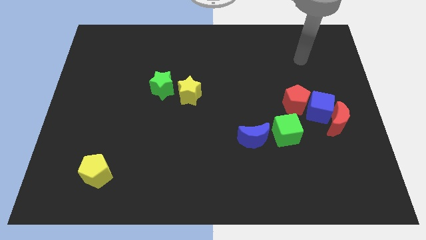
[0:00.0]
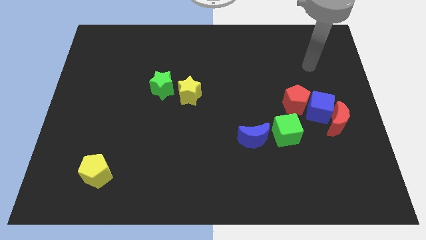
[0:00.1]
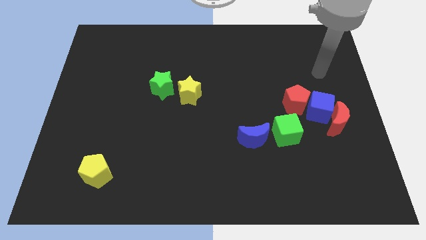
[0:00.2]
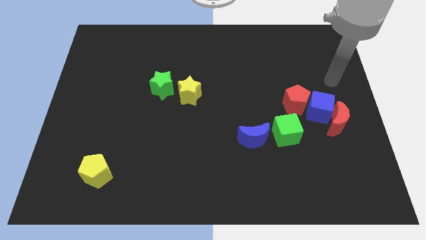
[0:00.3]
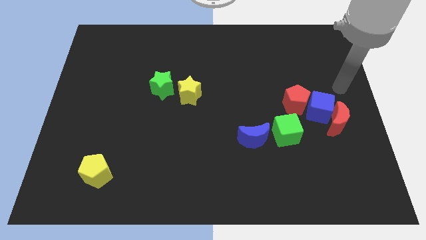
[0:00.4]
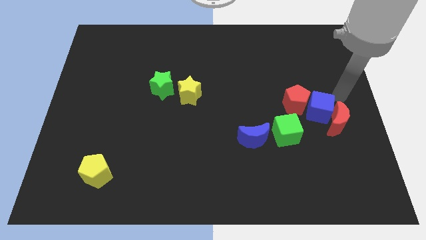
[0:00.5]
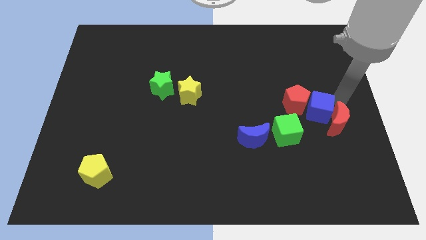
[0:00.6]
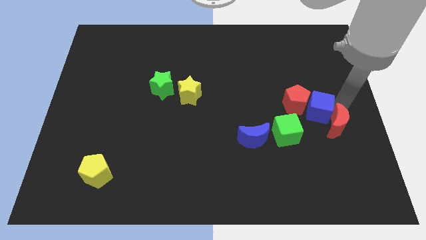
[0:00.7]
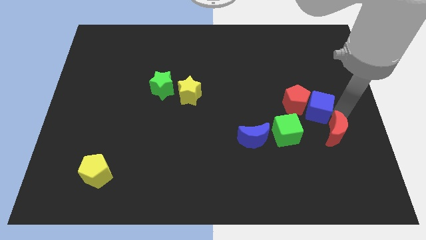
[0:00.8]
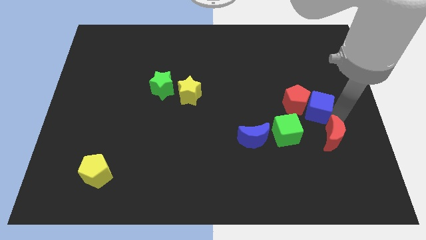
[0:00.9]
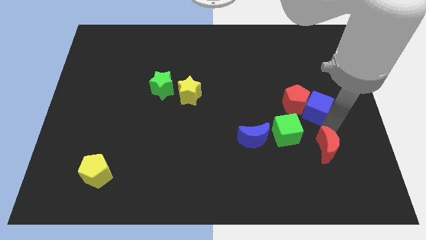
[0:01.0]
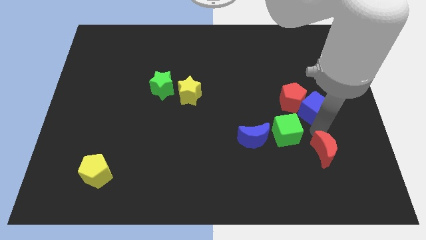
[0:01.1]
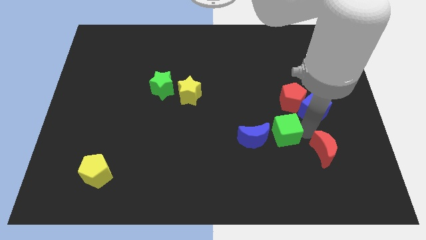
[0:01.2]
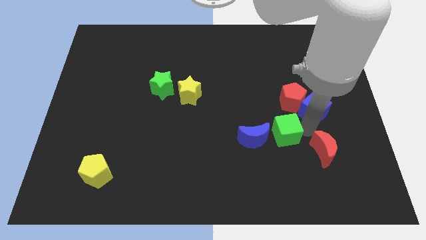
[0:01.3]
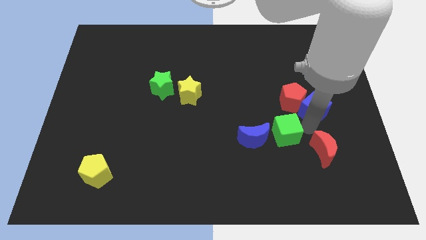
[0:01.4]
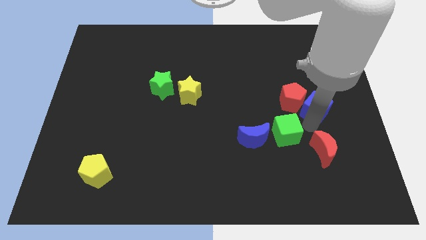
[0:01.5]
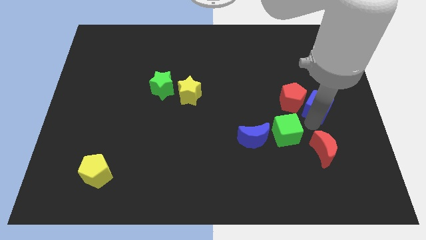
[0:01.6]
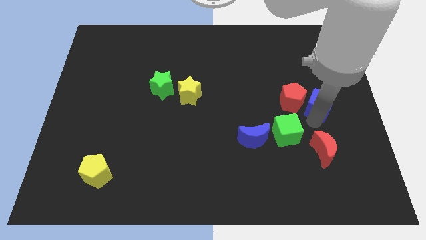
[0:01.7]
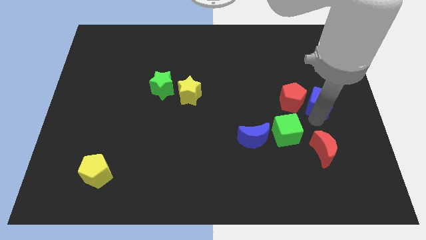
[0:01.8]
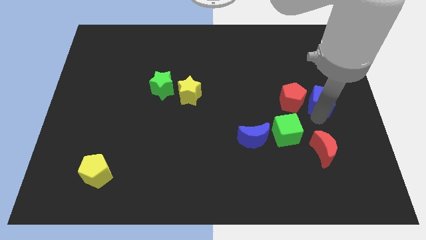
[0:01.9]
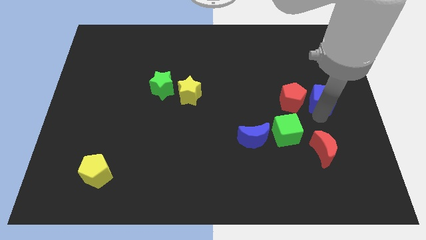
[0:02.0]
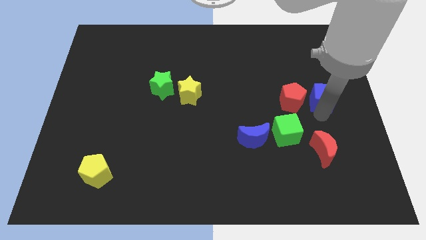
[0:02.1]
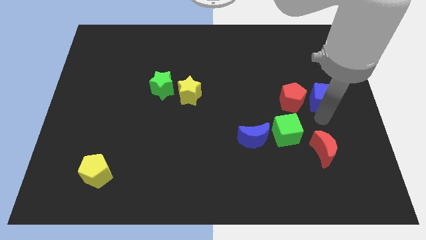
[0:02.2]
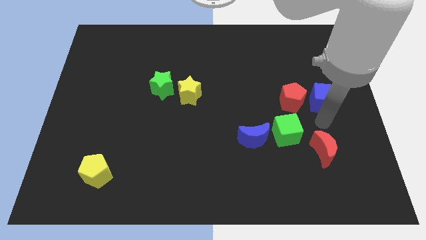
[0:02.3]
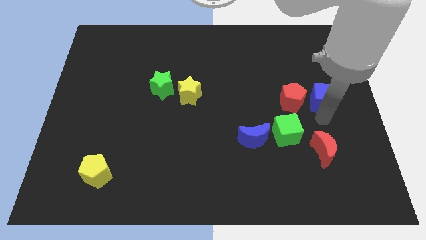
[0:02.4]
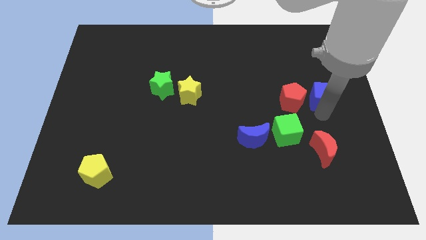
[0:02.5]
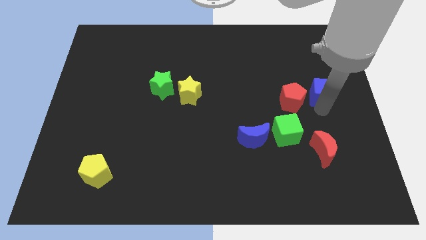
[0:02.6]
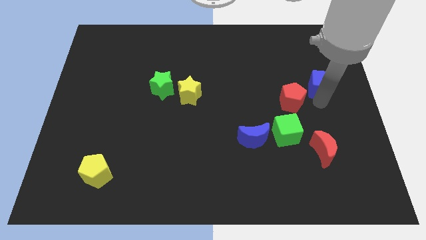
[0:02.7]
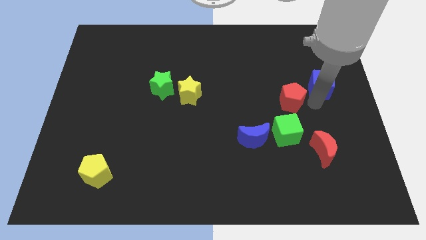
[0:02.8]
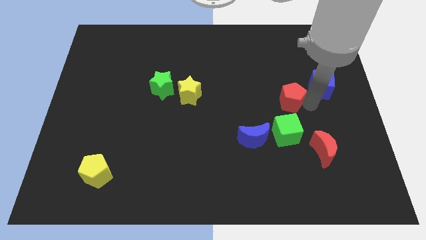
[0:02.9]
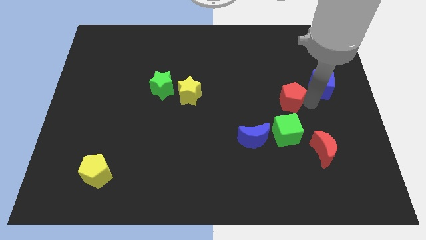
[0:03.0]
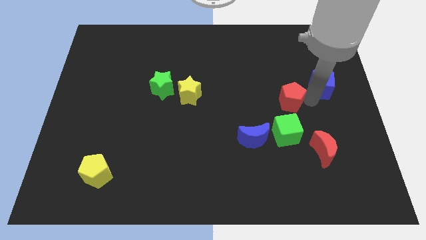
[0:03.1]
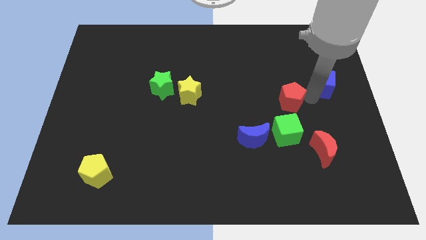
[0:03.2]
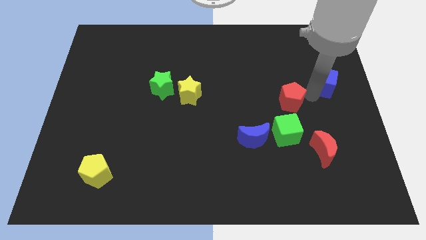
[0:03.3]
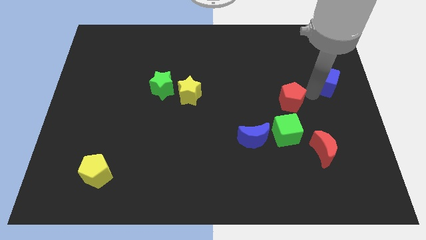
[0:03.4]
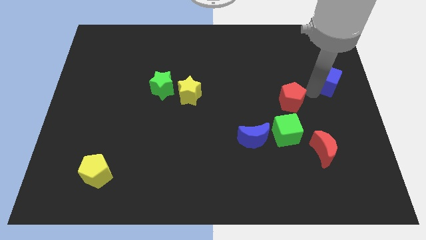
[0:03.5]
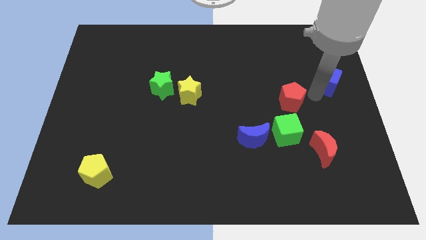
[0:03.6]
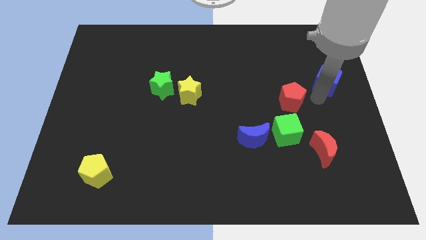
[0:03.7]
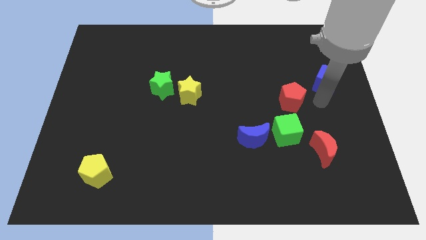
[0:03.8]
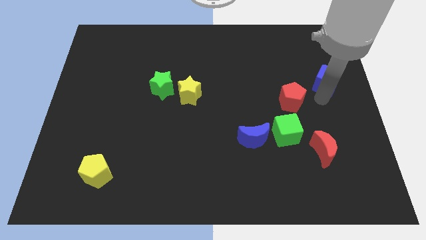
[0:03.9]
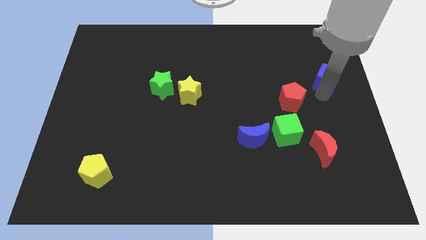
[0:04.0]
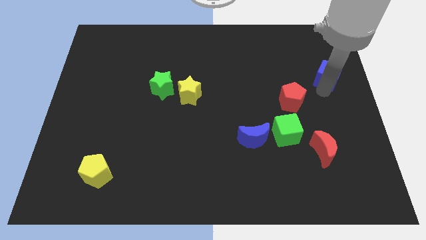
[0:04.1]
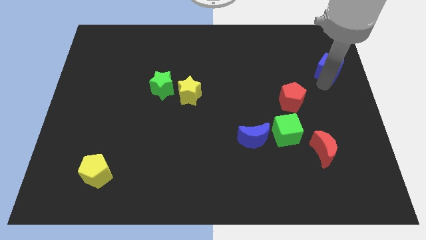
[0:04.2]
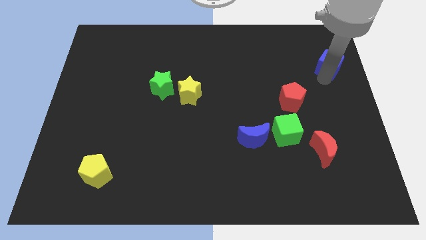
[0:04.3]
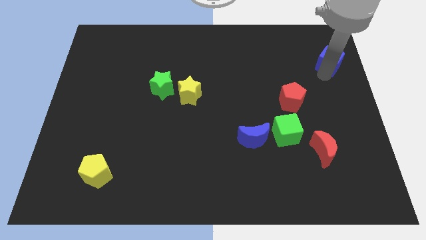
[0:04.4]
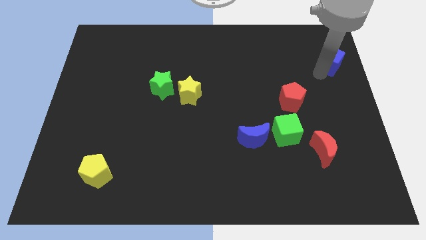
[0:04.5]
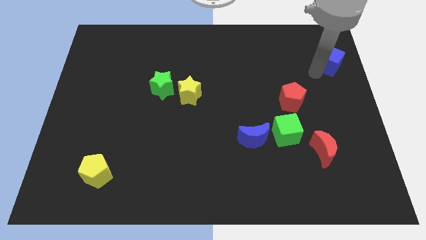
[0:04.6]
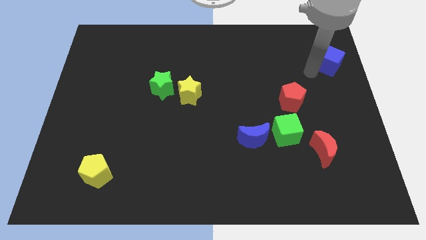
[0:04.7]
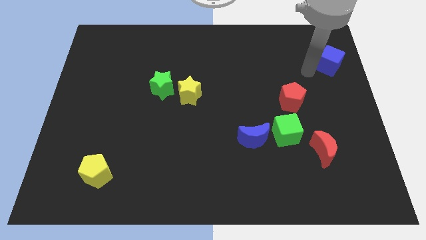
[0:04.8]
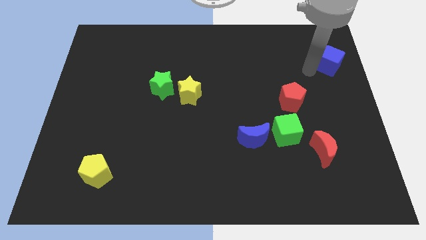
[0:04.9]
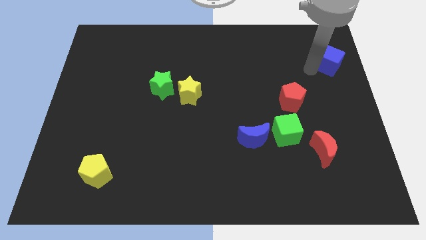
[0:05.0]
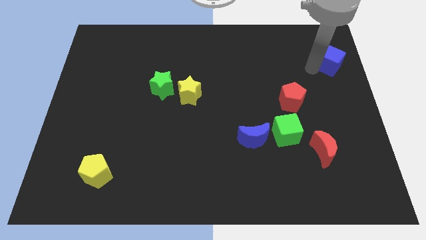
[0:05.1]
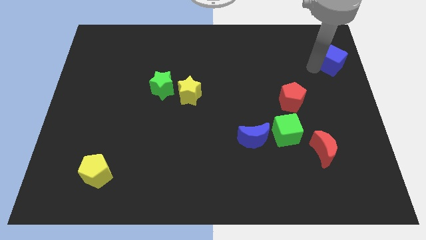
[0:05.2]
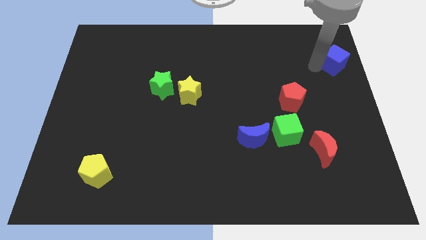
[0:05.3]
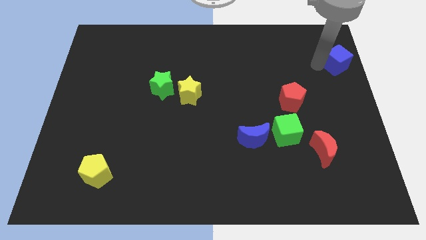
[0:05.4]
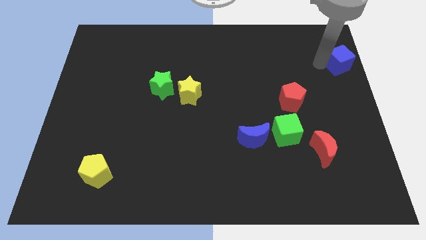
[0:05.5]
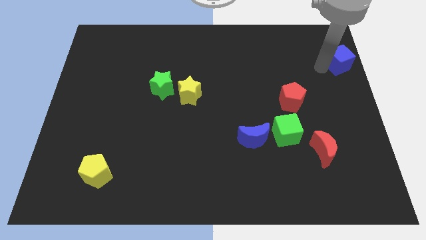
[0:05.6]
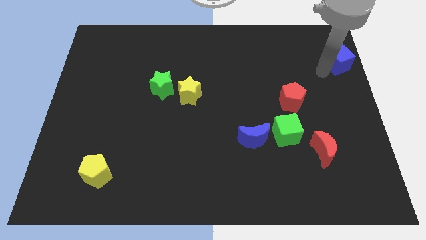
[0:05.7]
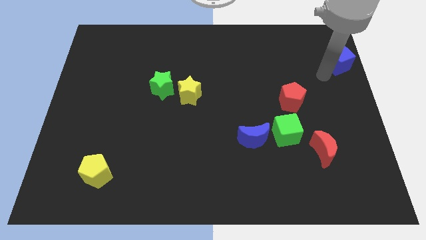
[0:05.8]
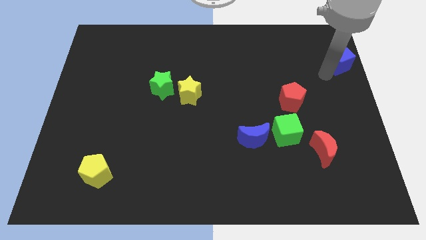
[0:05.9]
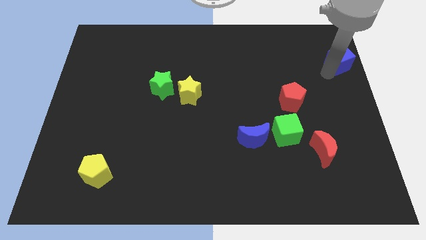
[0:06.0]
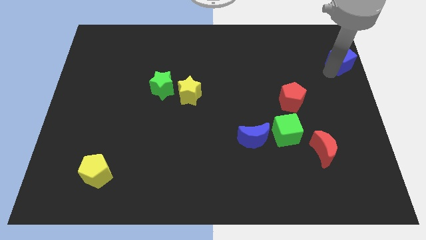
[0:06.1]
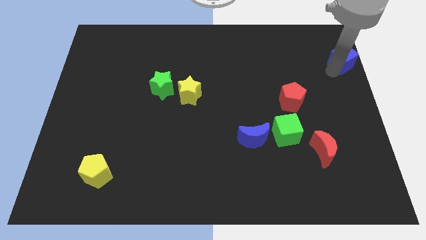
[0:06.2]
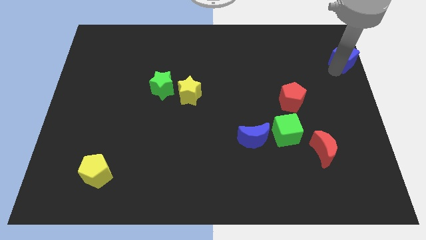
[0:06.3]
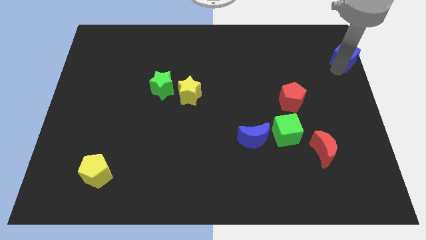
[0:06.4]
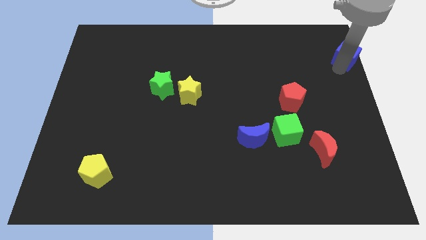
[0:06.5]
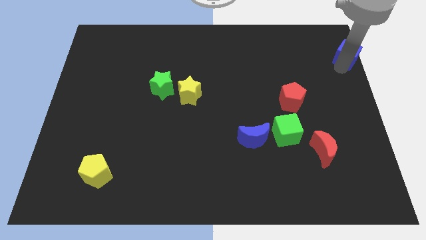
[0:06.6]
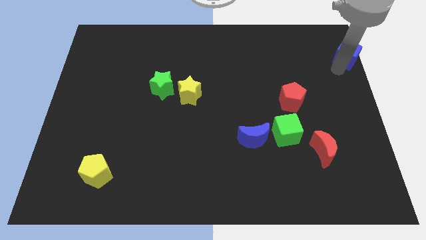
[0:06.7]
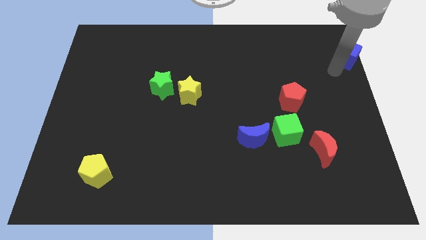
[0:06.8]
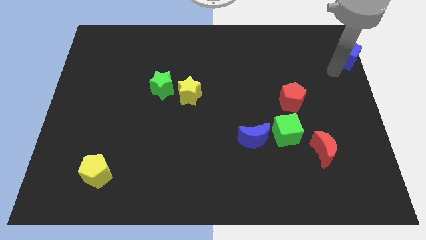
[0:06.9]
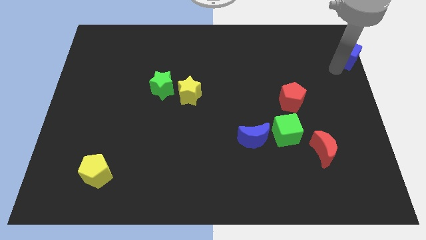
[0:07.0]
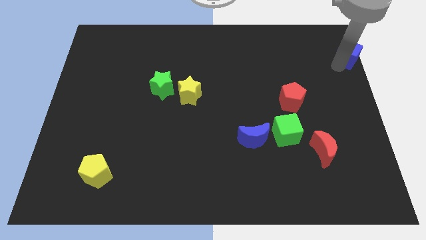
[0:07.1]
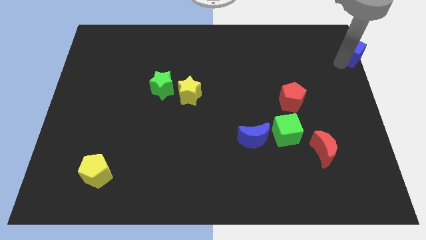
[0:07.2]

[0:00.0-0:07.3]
move the blue cube to the top right

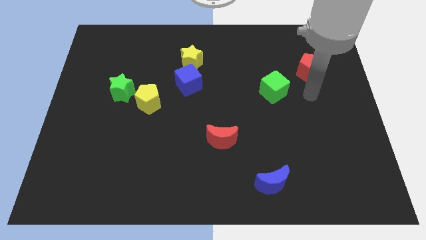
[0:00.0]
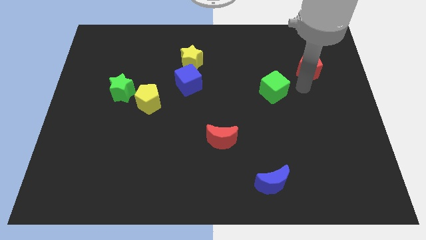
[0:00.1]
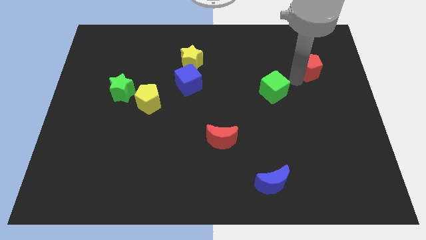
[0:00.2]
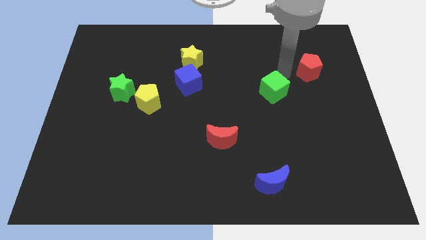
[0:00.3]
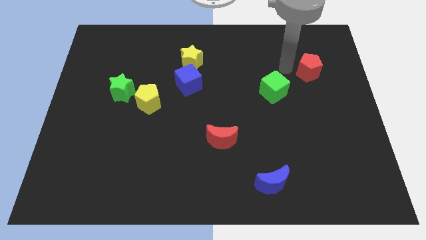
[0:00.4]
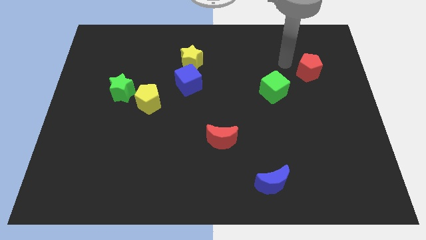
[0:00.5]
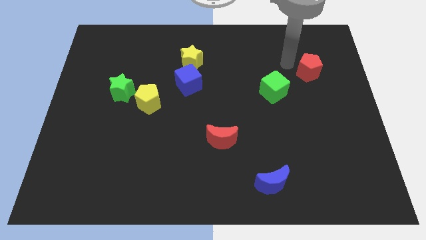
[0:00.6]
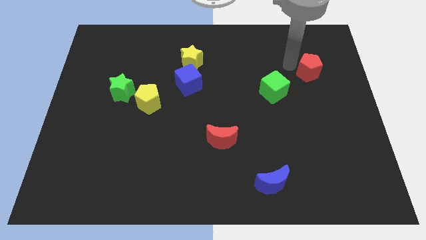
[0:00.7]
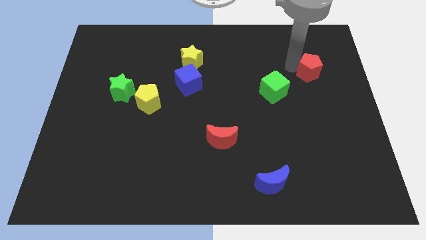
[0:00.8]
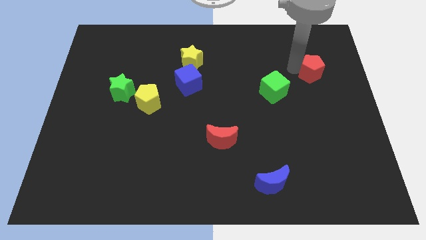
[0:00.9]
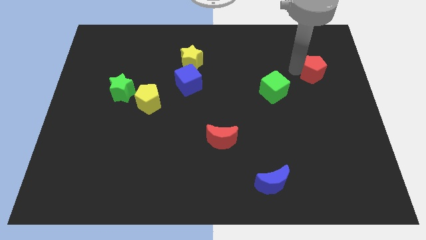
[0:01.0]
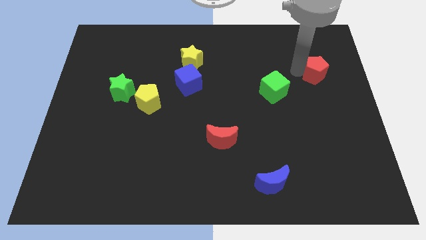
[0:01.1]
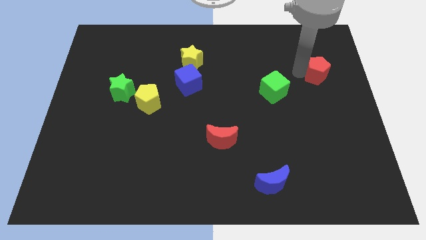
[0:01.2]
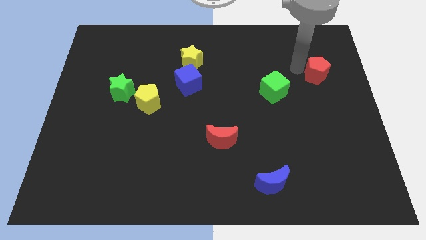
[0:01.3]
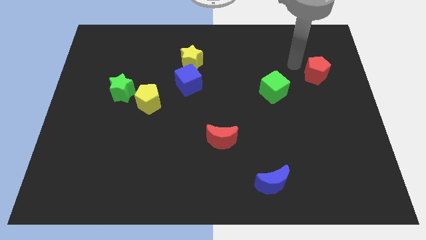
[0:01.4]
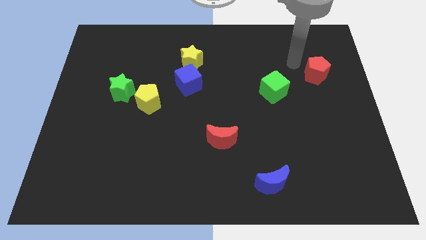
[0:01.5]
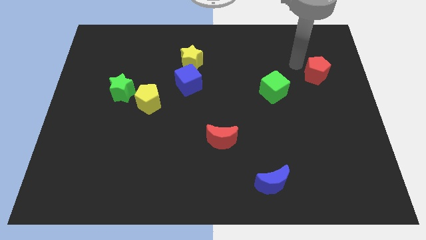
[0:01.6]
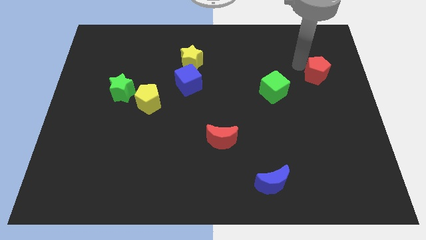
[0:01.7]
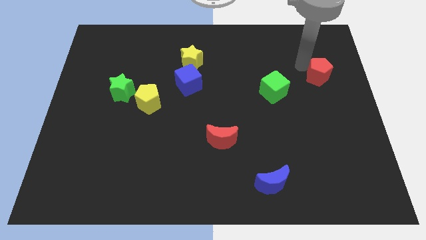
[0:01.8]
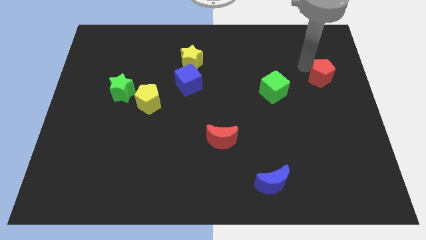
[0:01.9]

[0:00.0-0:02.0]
push the red pentagon to the right side
